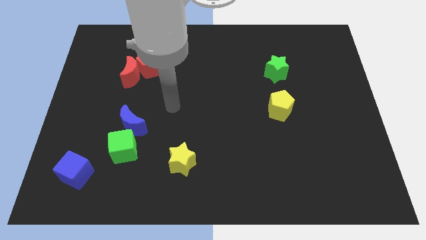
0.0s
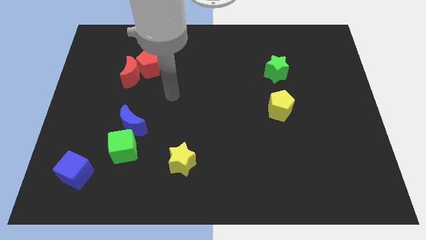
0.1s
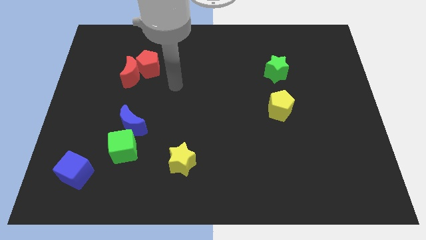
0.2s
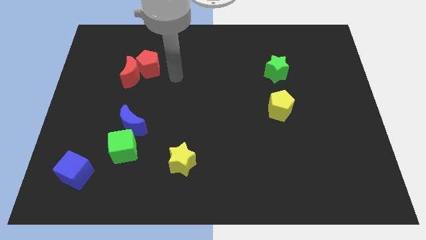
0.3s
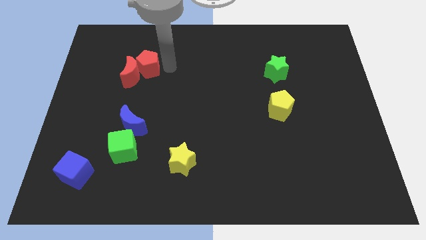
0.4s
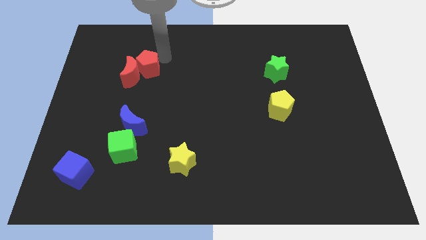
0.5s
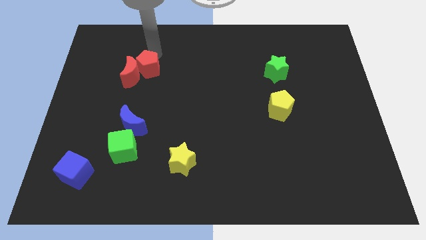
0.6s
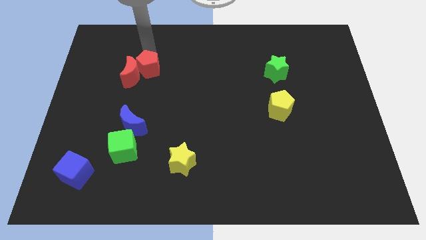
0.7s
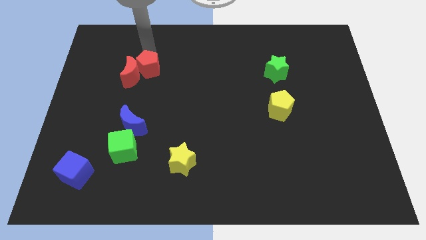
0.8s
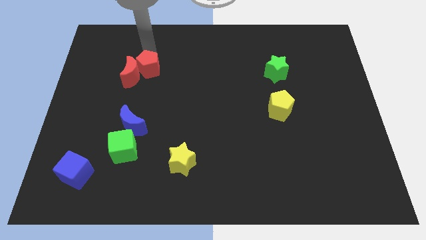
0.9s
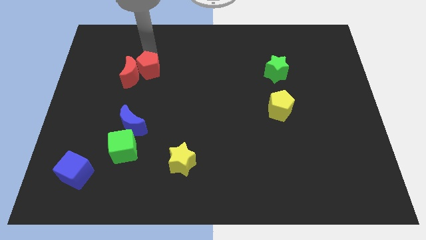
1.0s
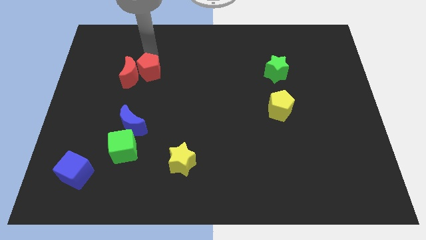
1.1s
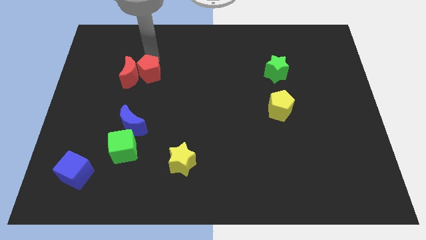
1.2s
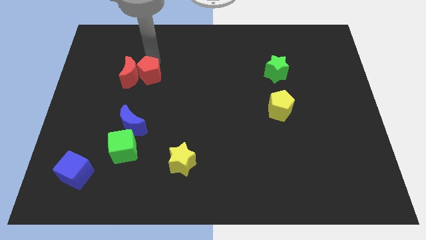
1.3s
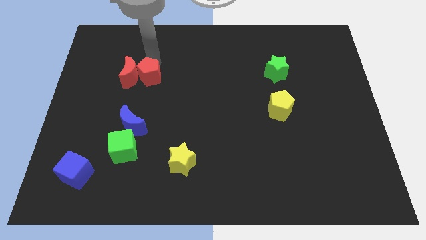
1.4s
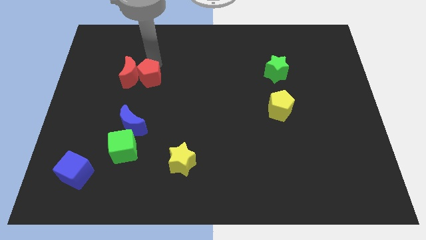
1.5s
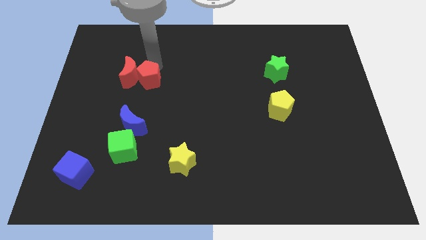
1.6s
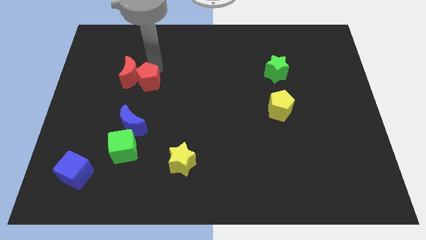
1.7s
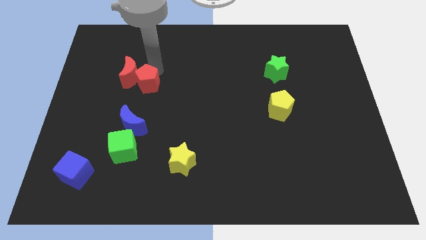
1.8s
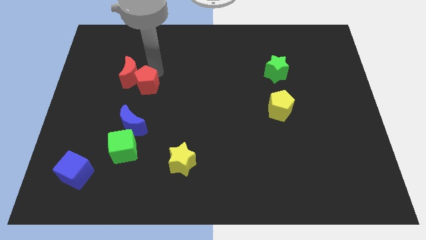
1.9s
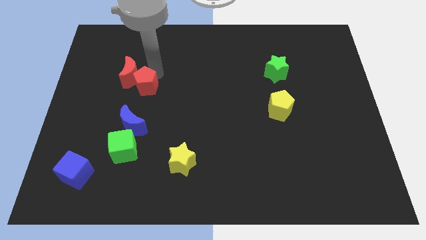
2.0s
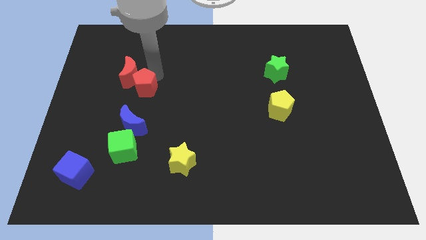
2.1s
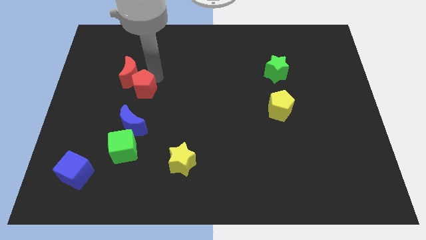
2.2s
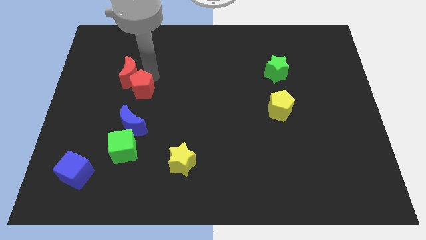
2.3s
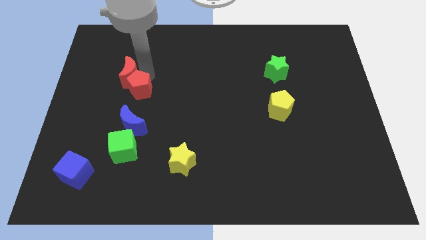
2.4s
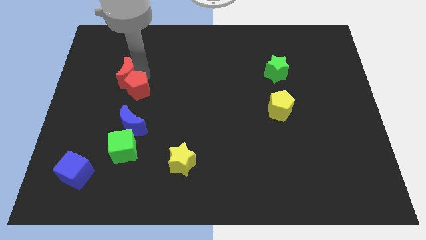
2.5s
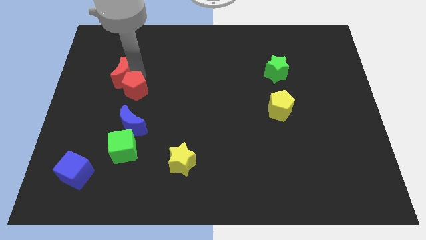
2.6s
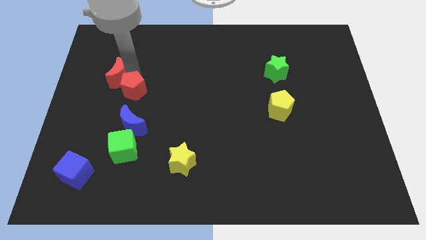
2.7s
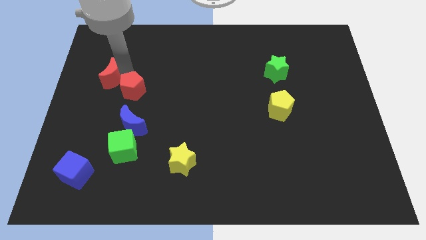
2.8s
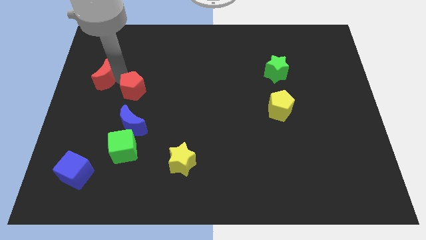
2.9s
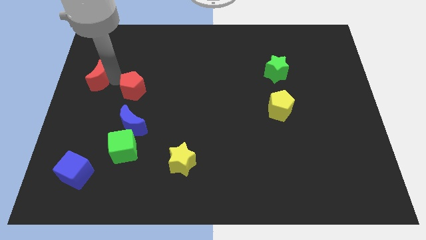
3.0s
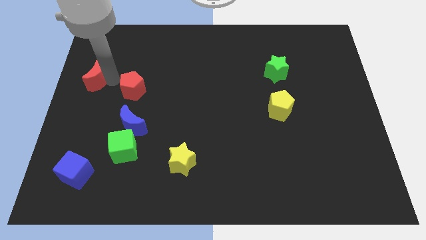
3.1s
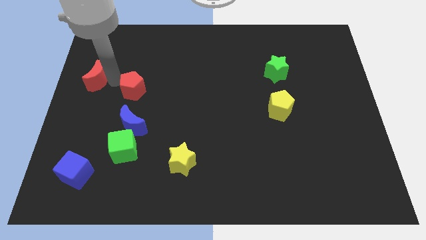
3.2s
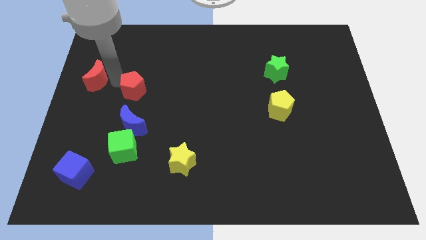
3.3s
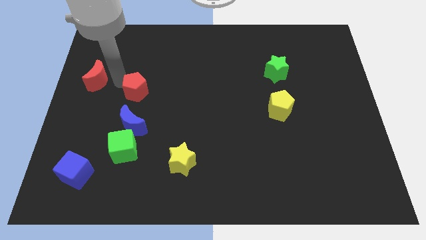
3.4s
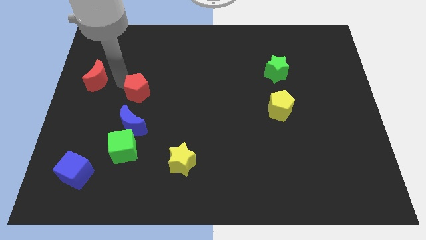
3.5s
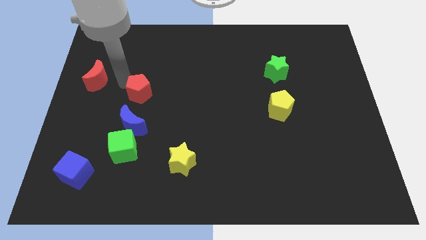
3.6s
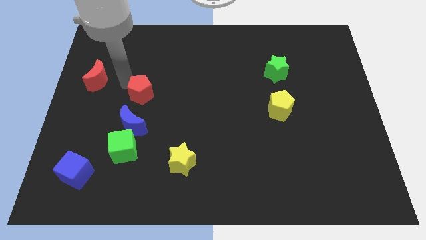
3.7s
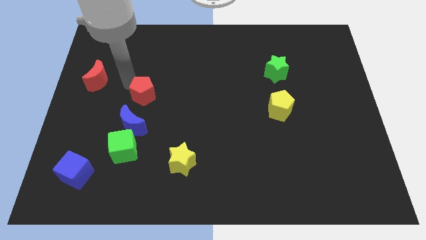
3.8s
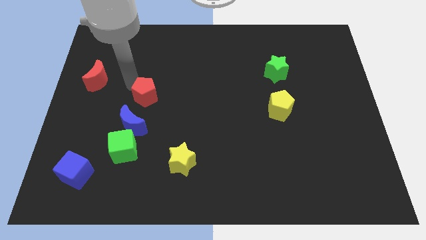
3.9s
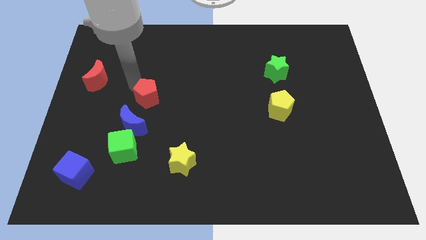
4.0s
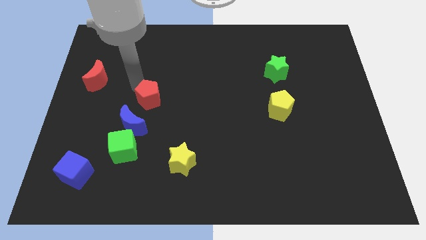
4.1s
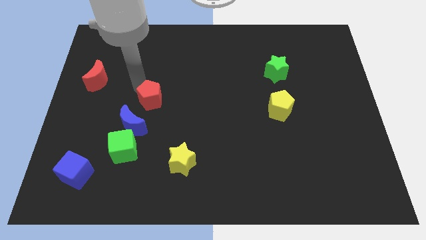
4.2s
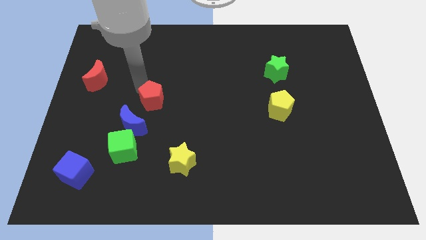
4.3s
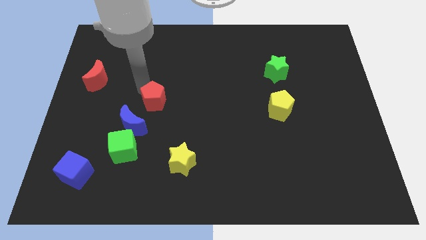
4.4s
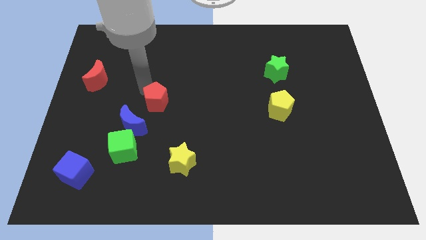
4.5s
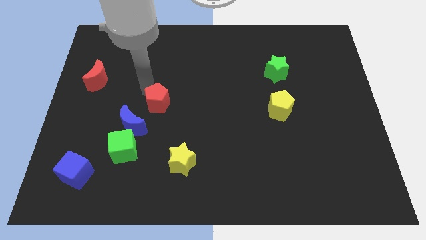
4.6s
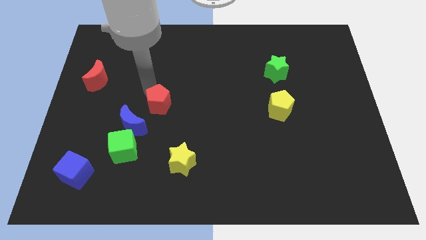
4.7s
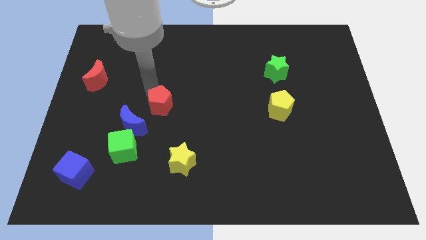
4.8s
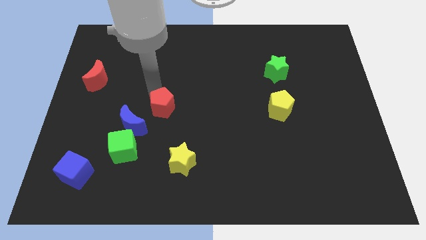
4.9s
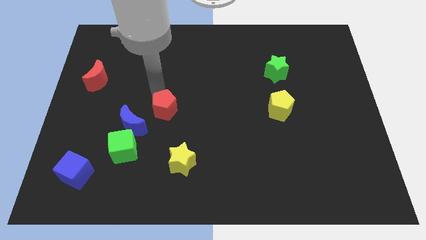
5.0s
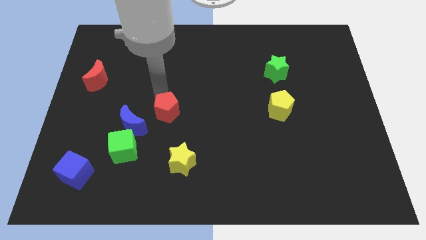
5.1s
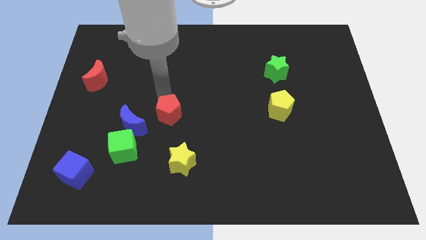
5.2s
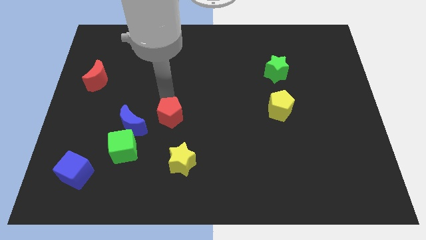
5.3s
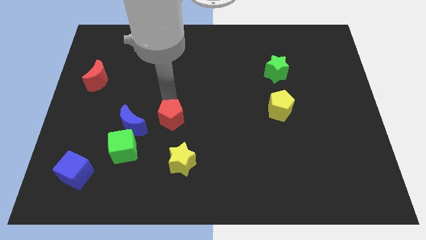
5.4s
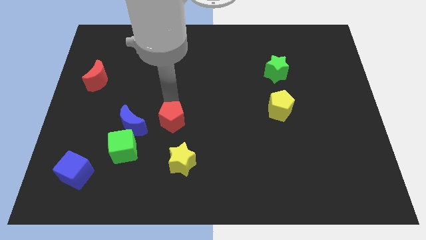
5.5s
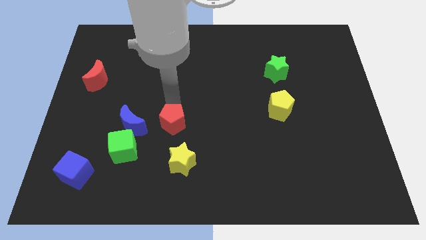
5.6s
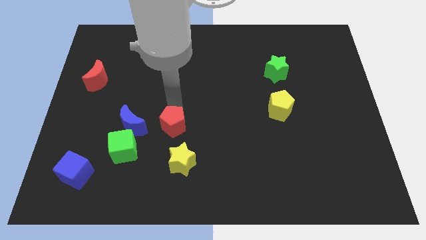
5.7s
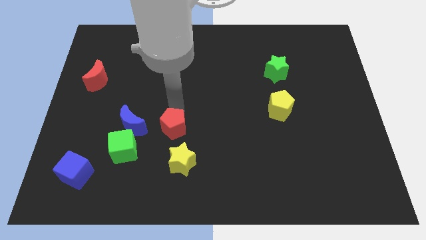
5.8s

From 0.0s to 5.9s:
move the red pentagon to the top left side of the yellow star

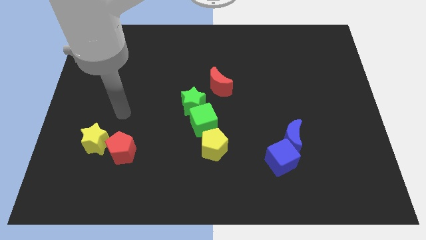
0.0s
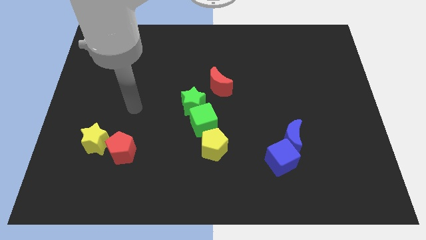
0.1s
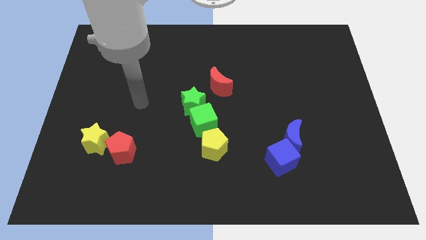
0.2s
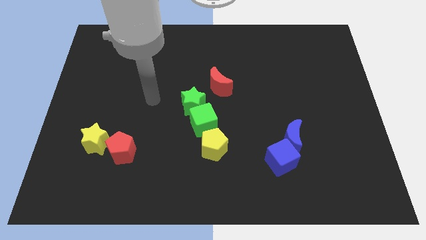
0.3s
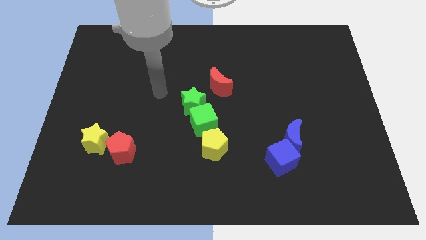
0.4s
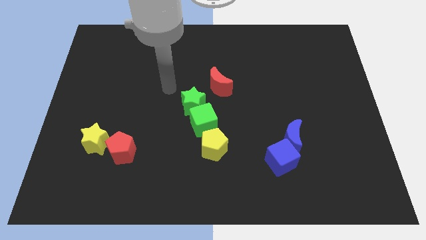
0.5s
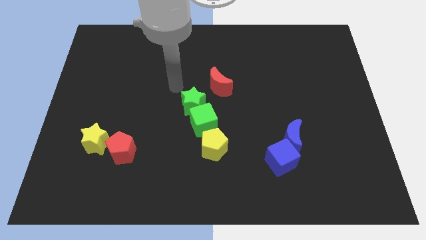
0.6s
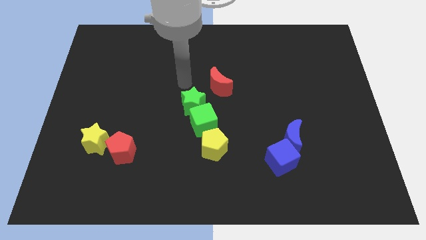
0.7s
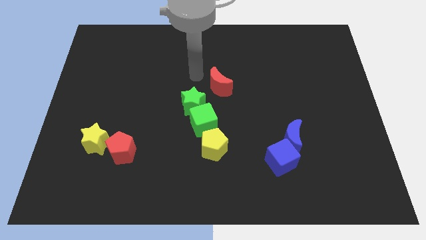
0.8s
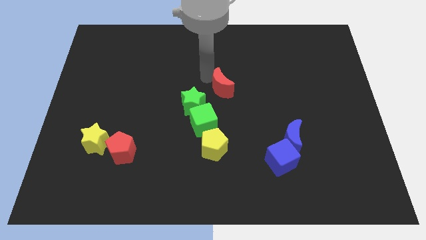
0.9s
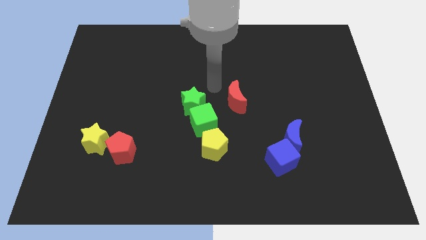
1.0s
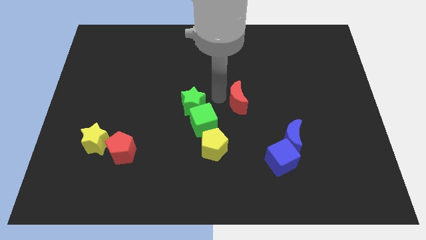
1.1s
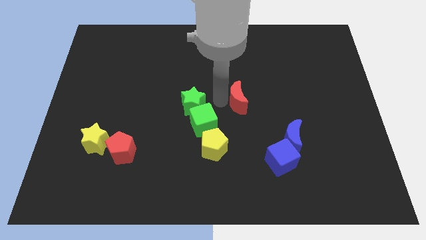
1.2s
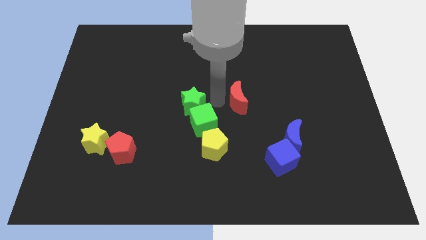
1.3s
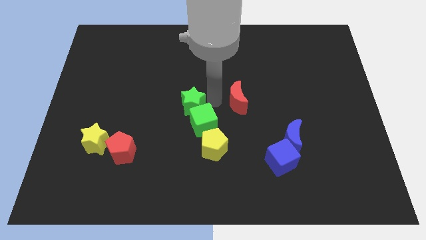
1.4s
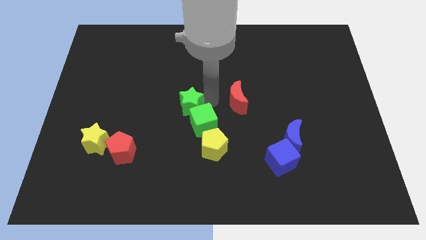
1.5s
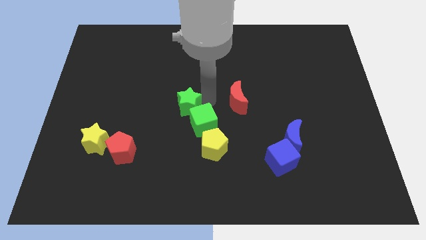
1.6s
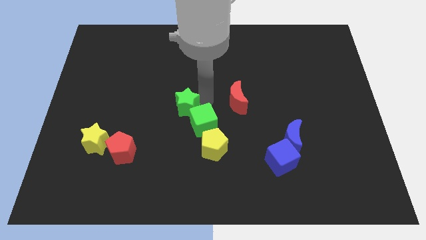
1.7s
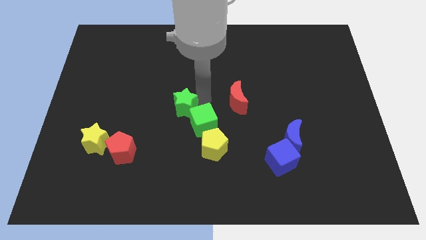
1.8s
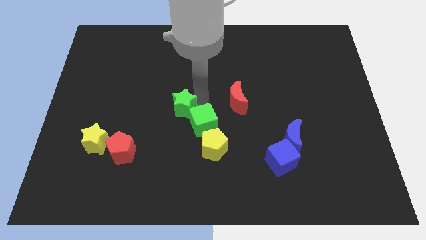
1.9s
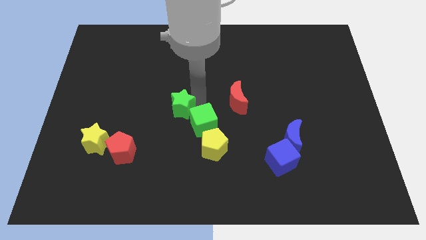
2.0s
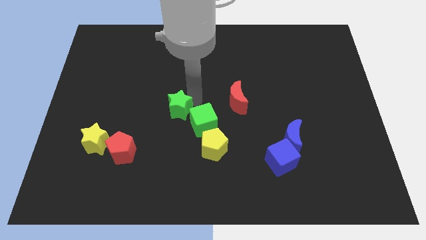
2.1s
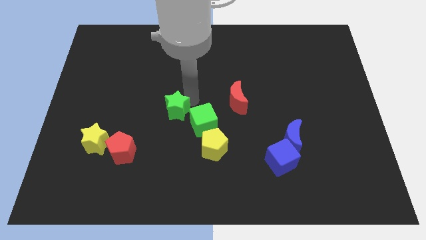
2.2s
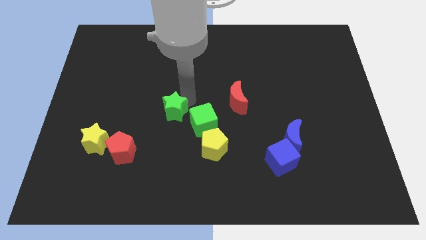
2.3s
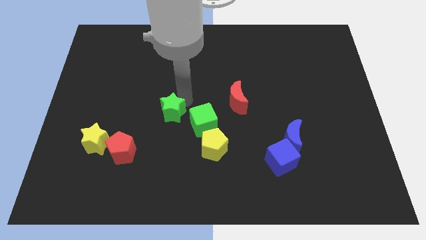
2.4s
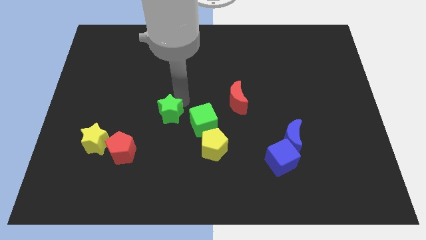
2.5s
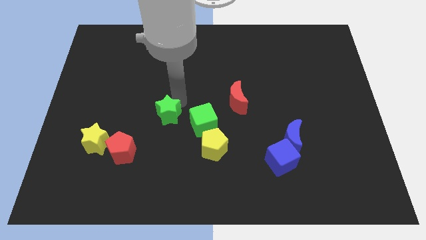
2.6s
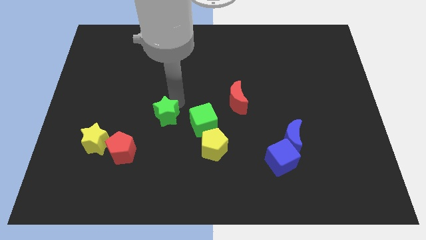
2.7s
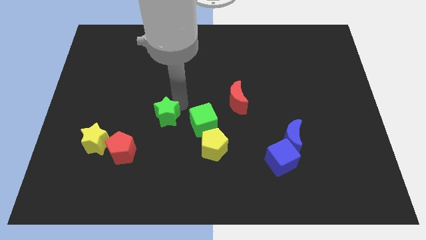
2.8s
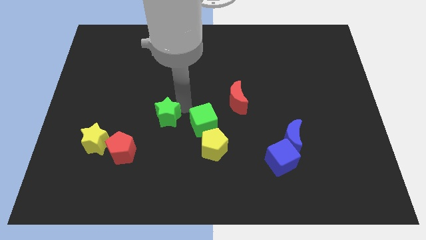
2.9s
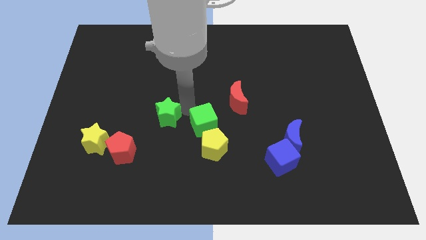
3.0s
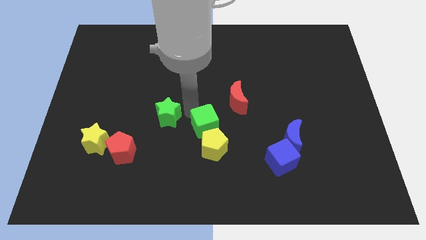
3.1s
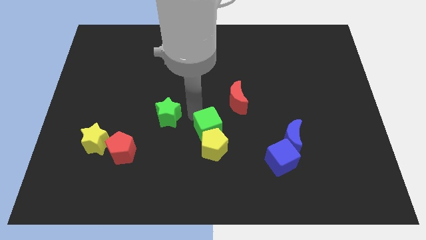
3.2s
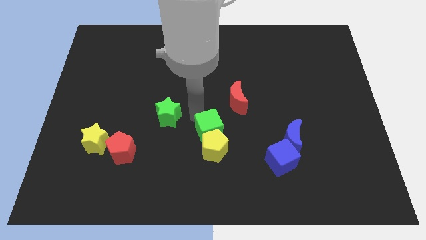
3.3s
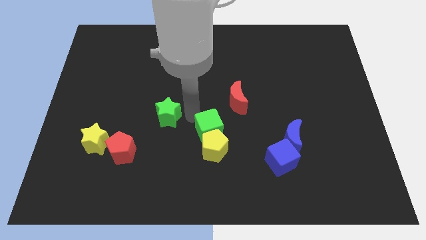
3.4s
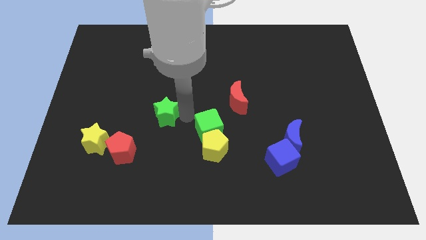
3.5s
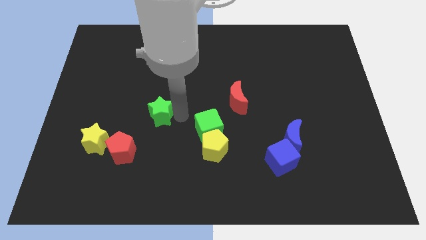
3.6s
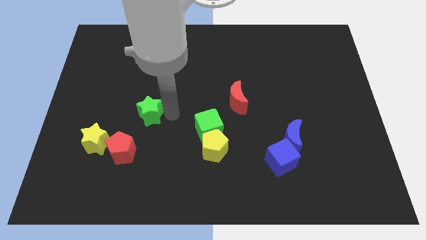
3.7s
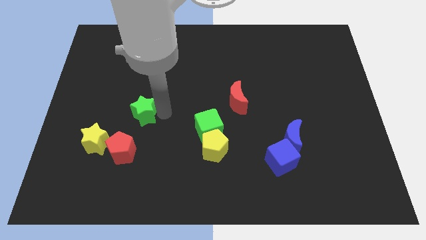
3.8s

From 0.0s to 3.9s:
put the green star to the top right side of the yellow star
